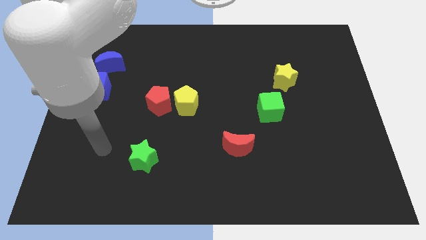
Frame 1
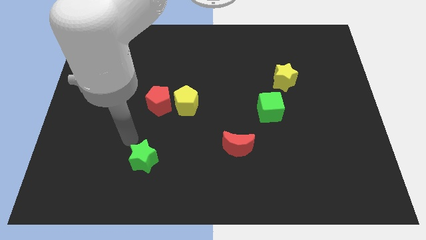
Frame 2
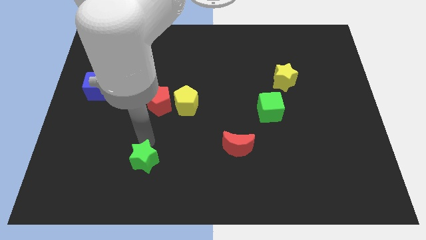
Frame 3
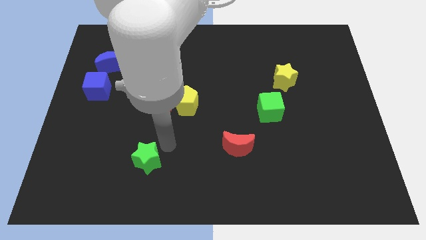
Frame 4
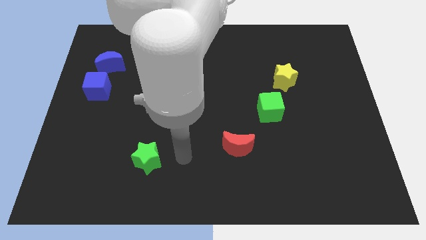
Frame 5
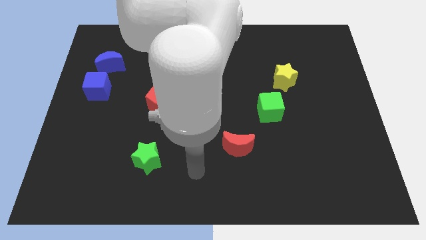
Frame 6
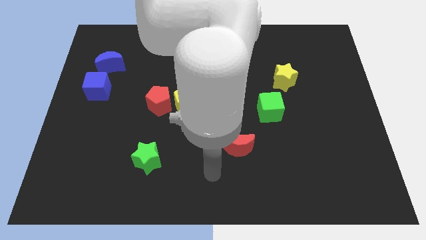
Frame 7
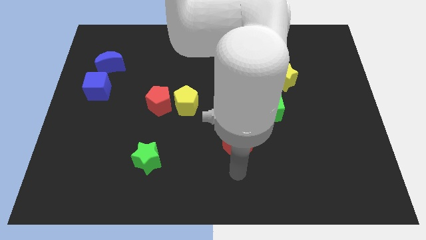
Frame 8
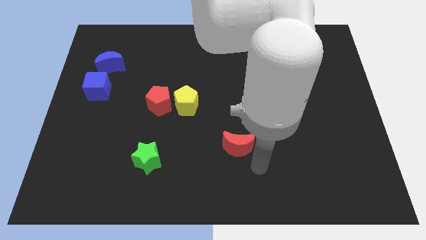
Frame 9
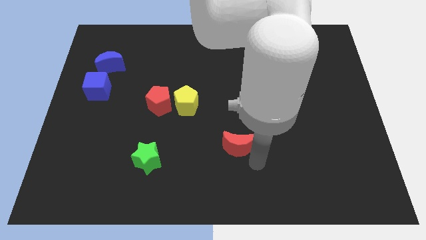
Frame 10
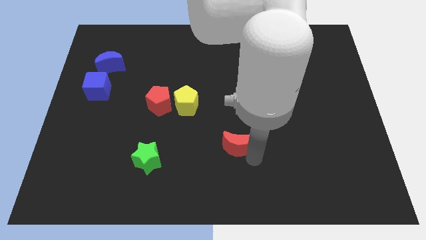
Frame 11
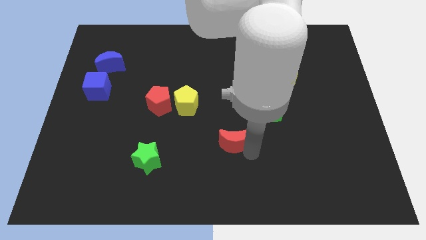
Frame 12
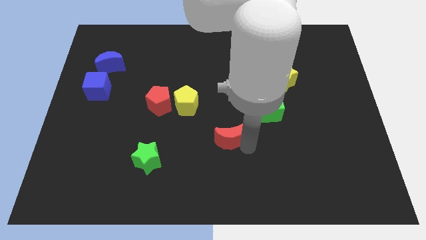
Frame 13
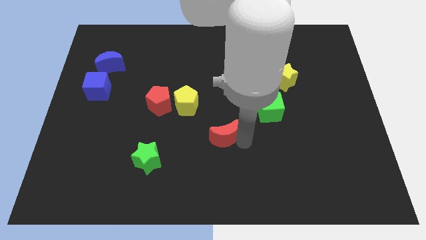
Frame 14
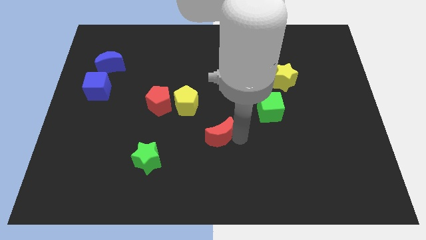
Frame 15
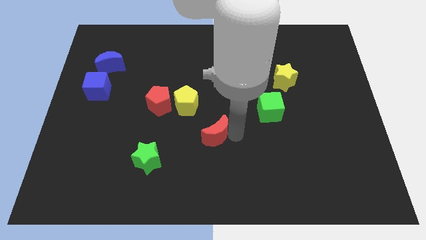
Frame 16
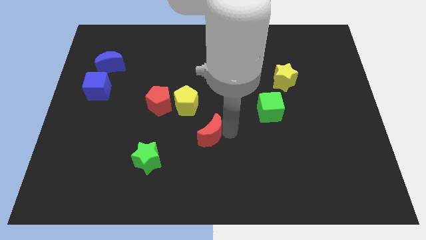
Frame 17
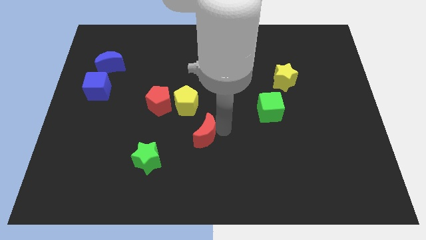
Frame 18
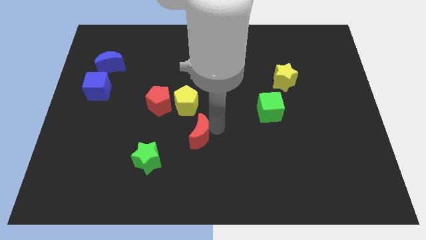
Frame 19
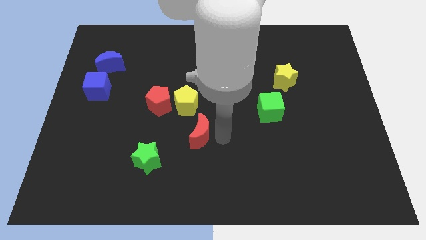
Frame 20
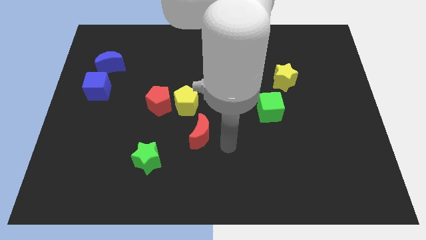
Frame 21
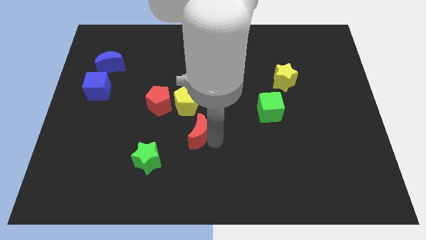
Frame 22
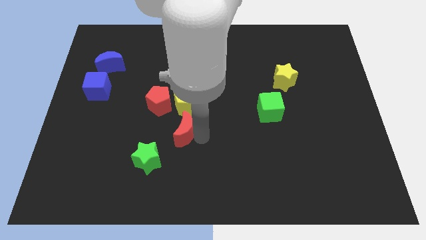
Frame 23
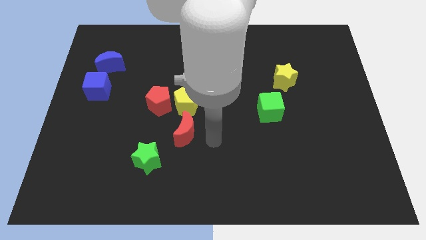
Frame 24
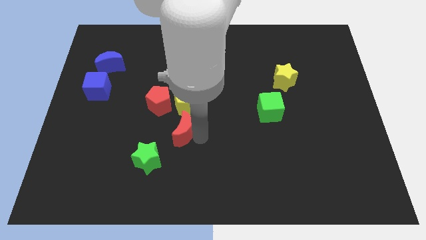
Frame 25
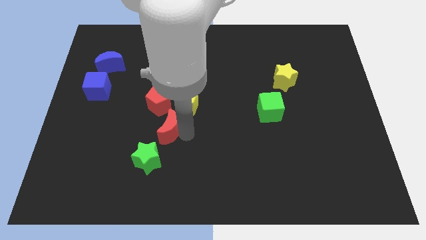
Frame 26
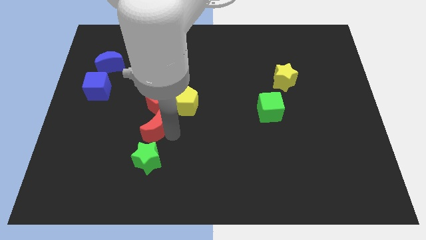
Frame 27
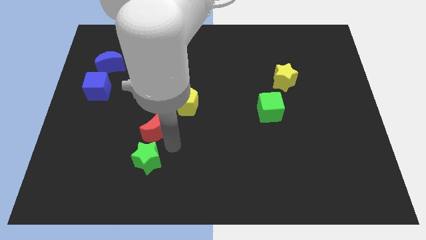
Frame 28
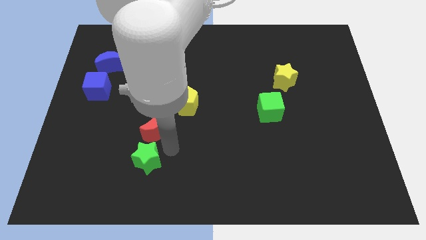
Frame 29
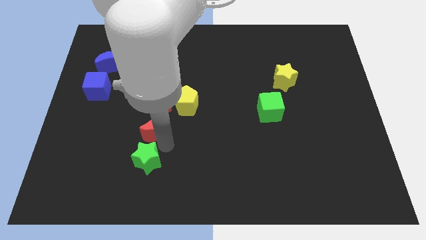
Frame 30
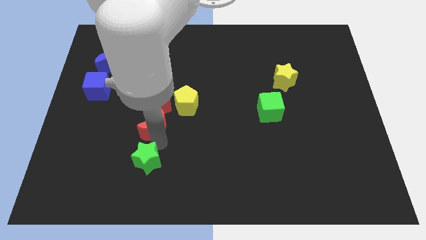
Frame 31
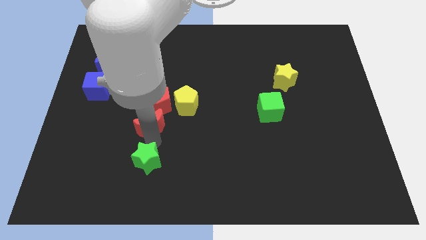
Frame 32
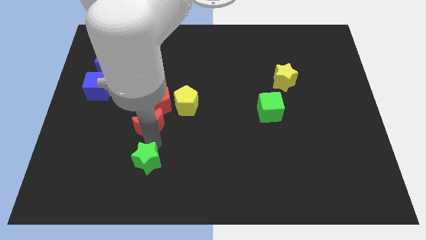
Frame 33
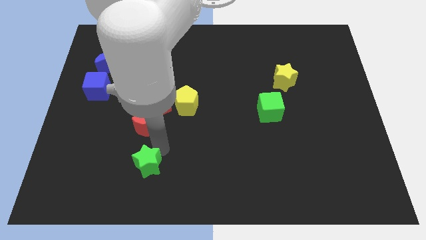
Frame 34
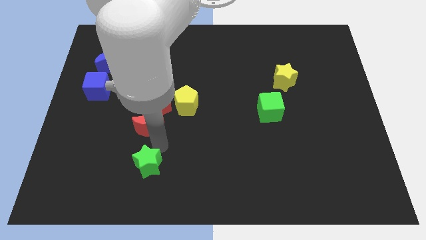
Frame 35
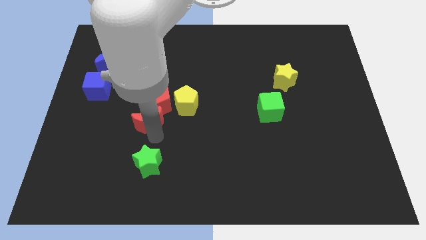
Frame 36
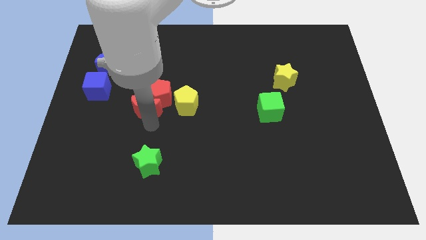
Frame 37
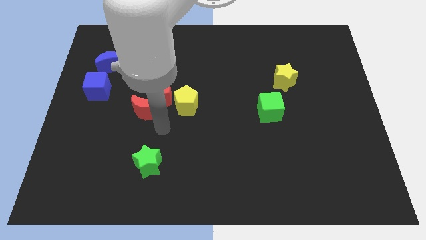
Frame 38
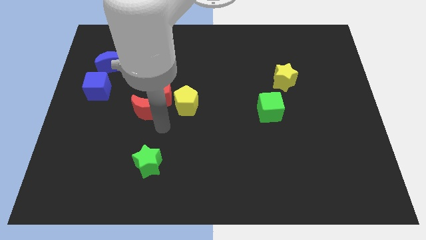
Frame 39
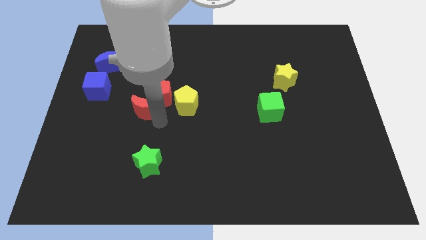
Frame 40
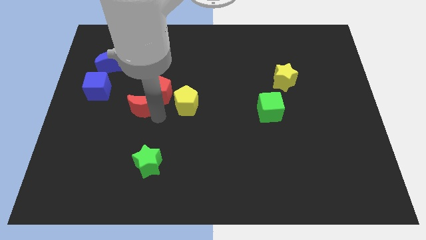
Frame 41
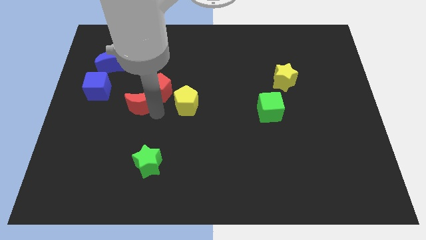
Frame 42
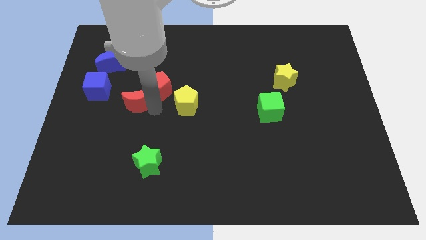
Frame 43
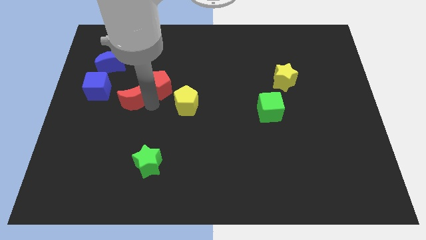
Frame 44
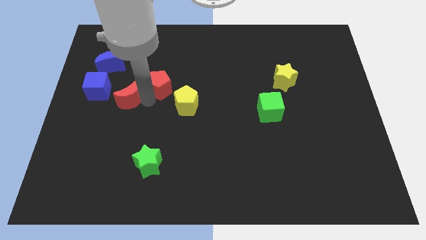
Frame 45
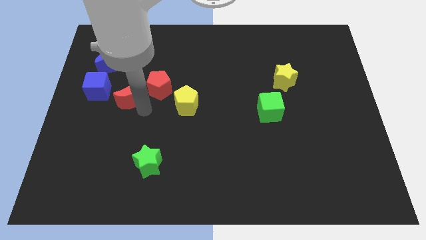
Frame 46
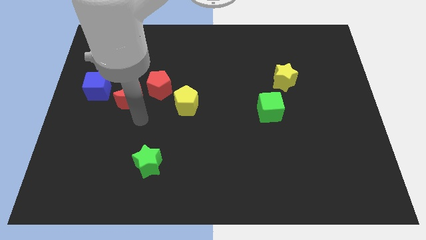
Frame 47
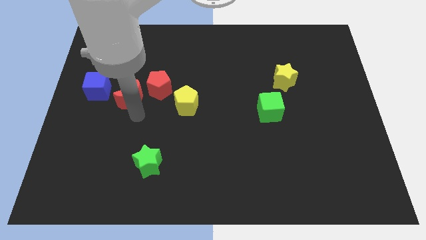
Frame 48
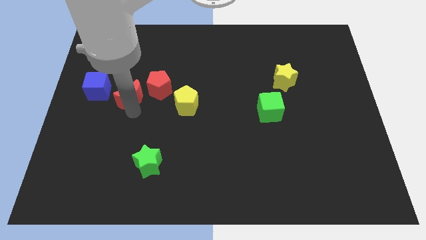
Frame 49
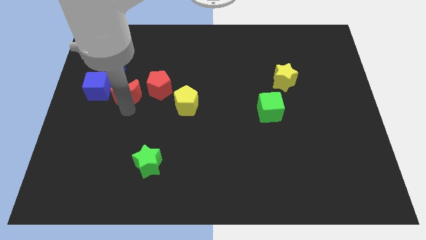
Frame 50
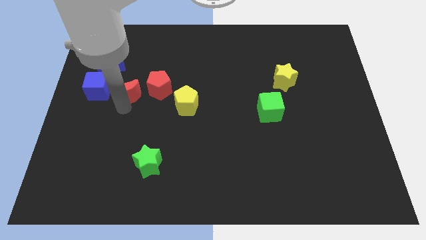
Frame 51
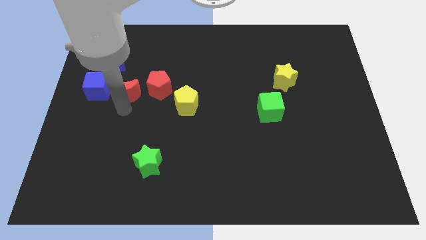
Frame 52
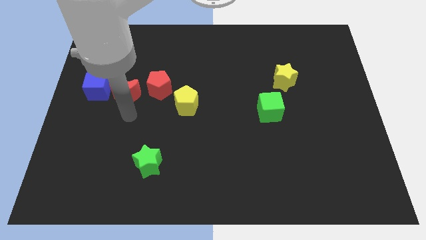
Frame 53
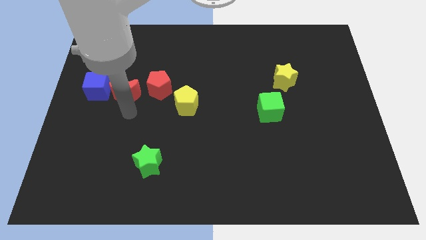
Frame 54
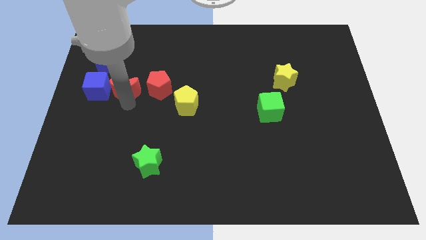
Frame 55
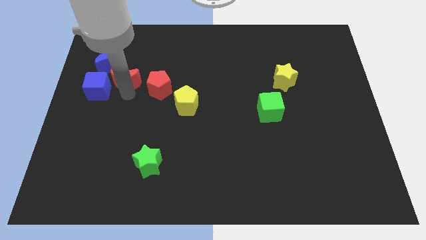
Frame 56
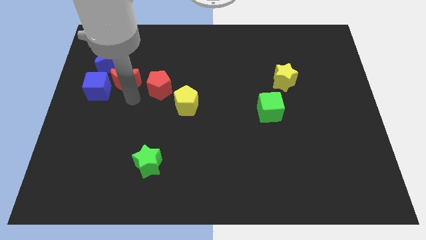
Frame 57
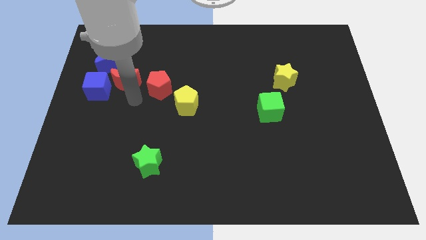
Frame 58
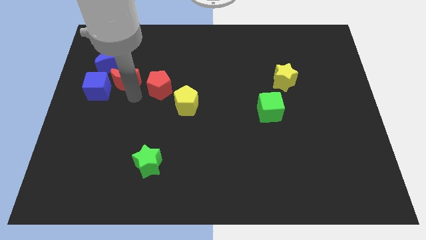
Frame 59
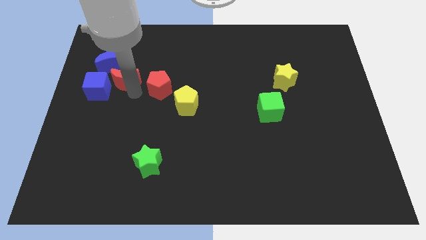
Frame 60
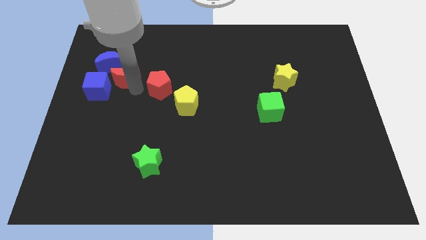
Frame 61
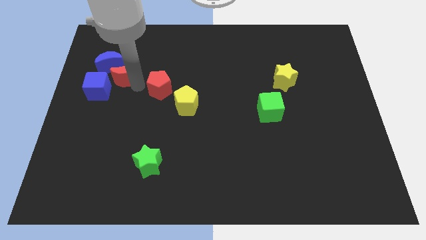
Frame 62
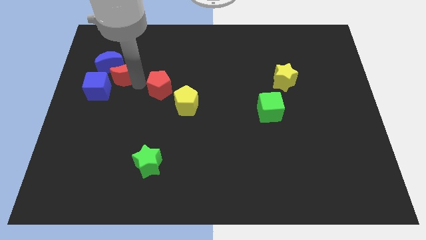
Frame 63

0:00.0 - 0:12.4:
slide the red moon close to the blue moon

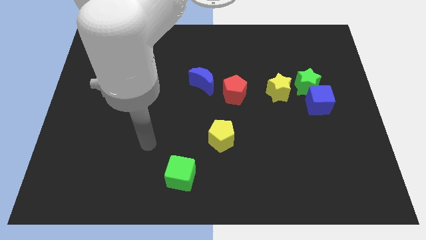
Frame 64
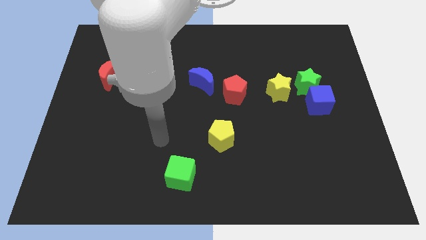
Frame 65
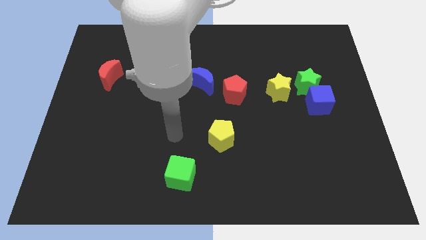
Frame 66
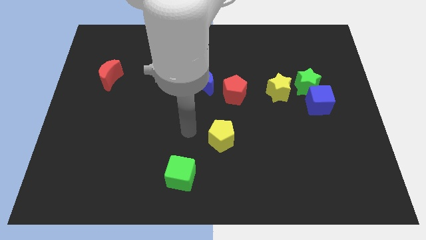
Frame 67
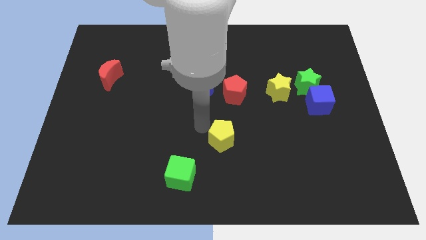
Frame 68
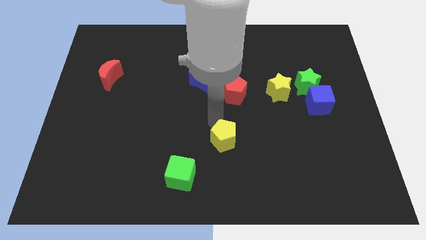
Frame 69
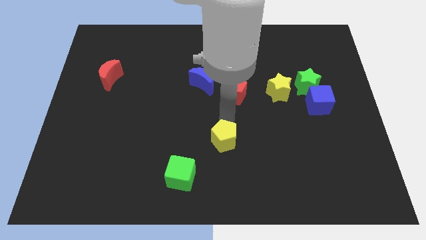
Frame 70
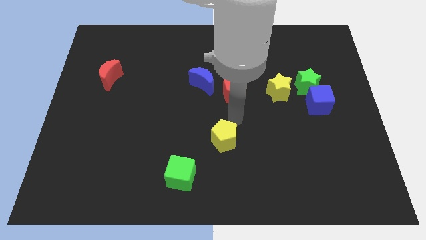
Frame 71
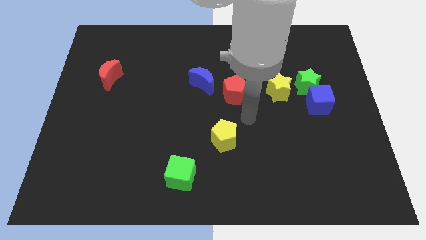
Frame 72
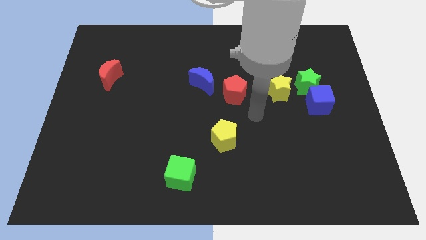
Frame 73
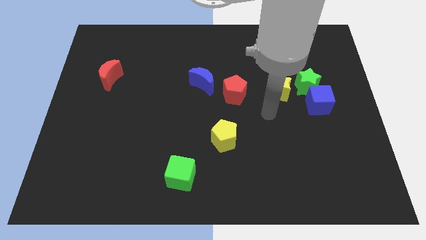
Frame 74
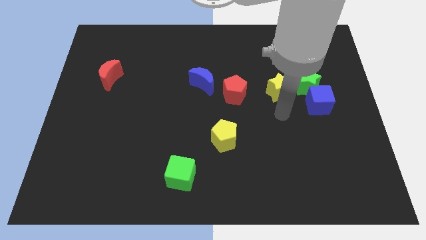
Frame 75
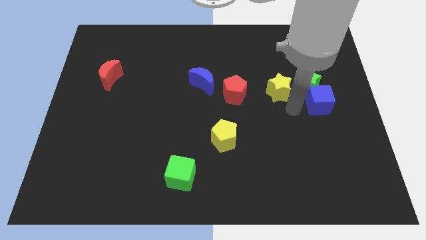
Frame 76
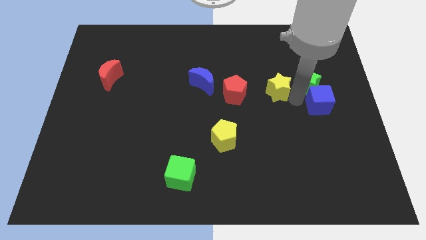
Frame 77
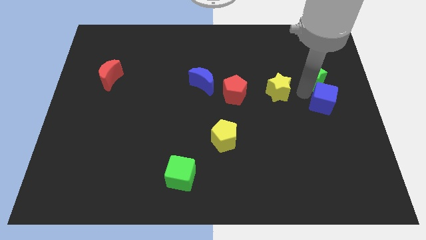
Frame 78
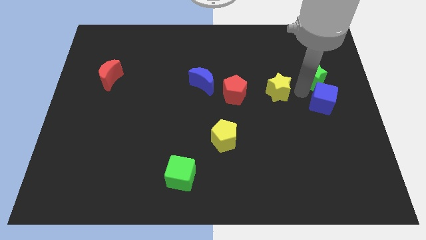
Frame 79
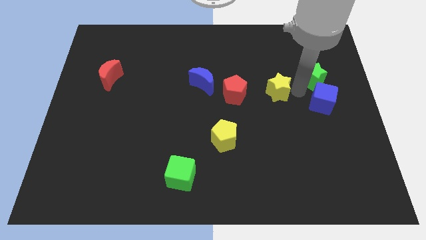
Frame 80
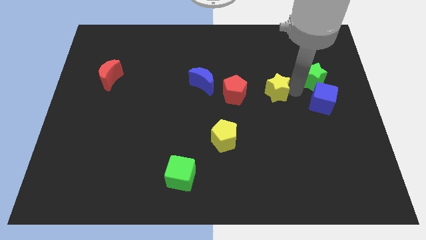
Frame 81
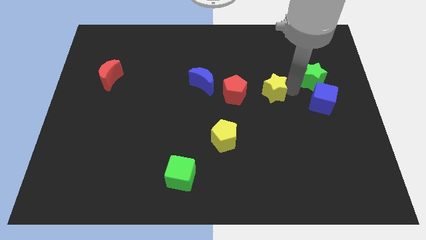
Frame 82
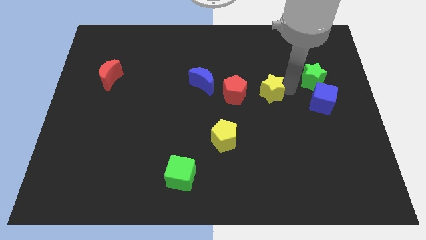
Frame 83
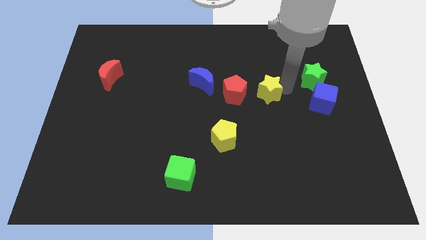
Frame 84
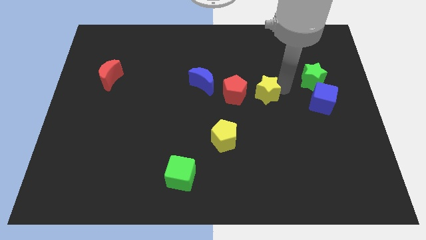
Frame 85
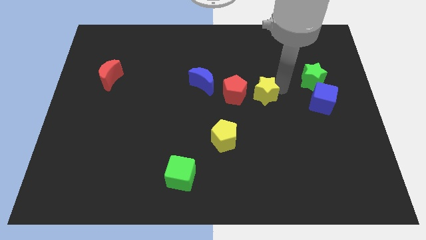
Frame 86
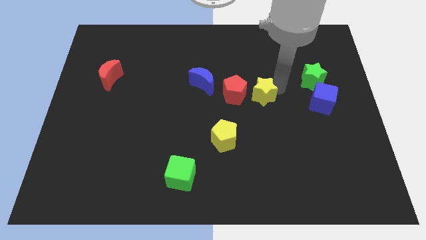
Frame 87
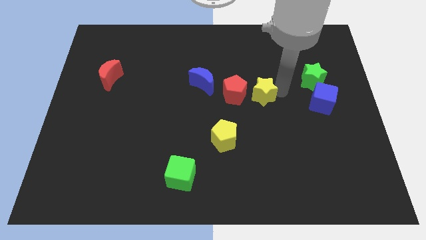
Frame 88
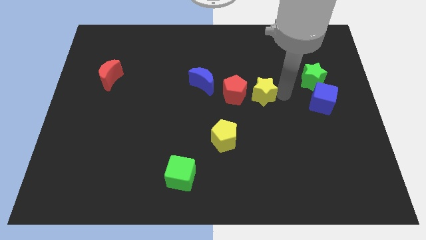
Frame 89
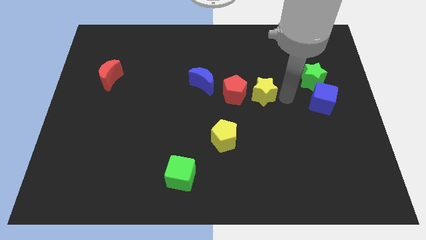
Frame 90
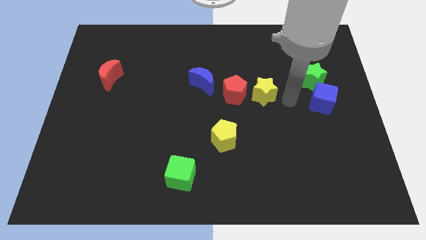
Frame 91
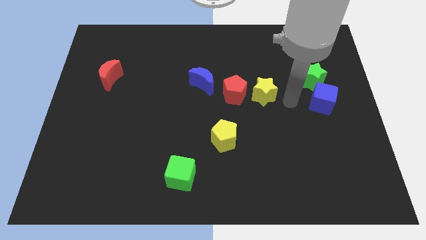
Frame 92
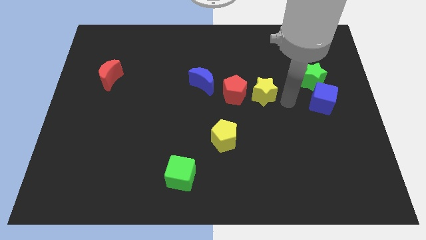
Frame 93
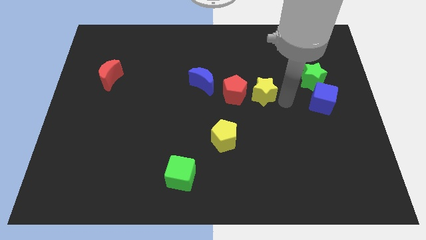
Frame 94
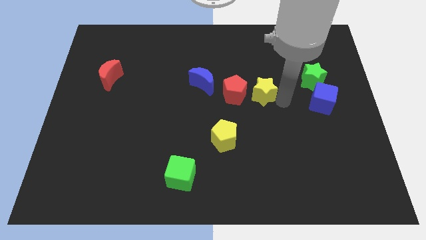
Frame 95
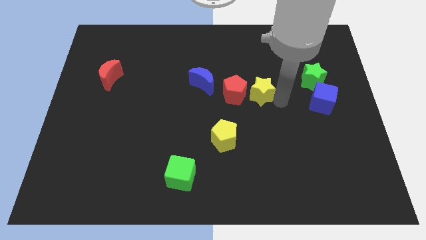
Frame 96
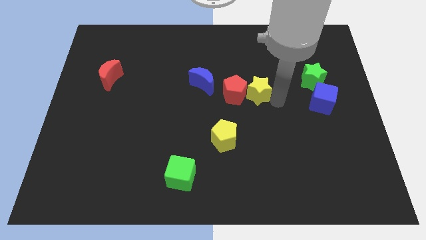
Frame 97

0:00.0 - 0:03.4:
slide the yellow star next to the red pentagon
